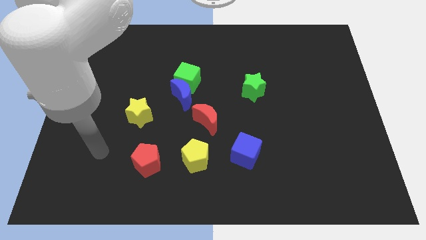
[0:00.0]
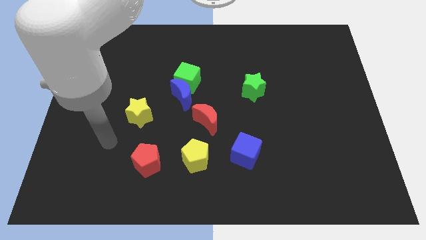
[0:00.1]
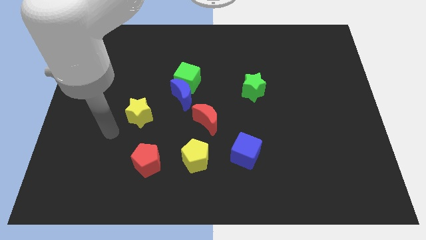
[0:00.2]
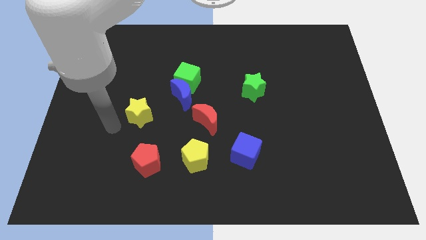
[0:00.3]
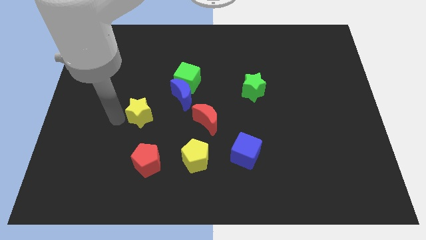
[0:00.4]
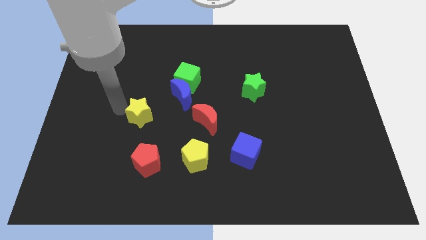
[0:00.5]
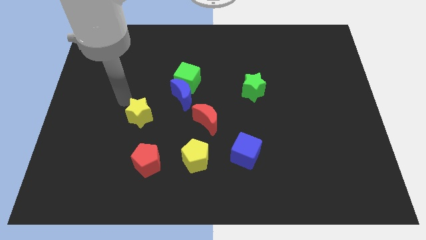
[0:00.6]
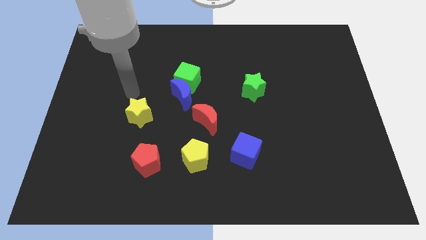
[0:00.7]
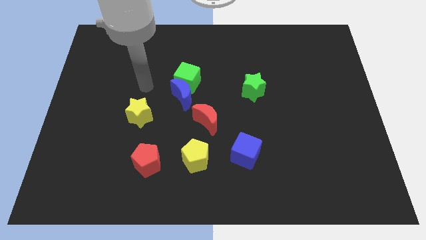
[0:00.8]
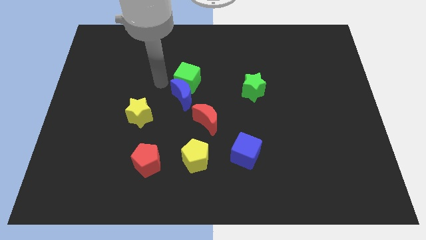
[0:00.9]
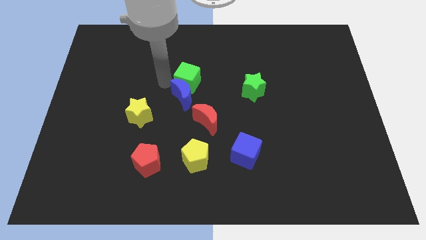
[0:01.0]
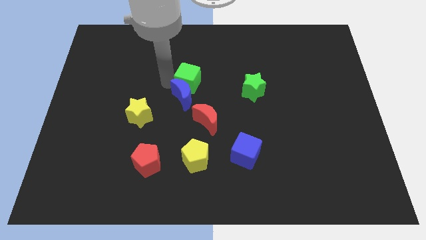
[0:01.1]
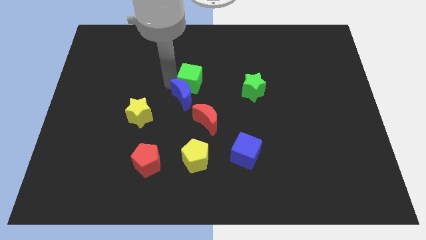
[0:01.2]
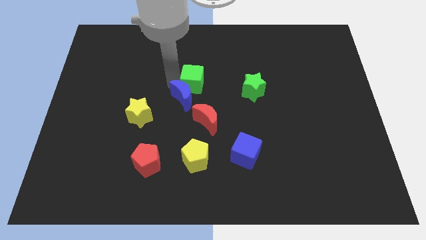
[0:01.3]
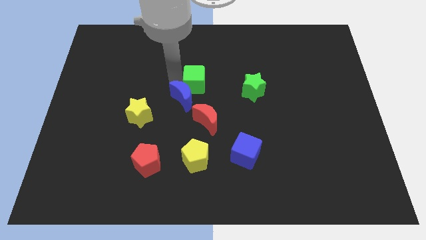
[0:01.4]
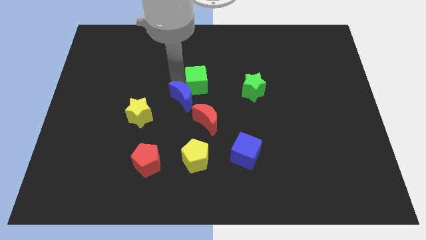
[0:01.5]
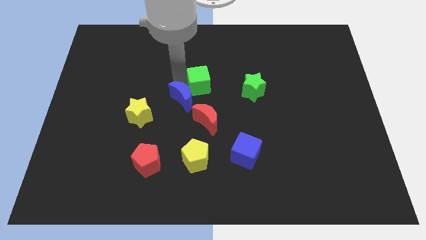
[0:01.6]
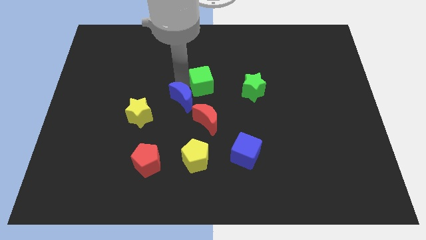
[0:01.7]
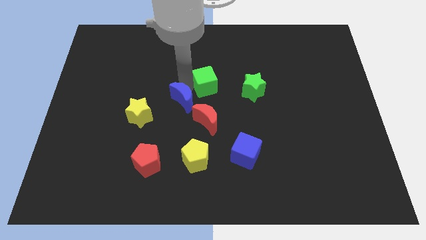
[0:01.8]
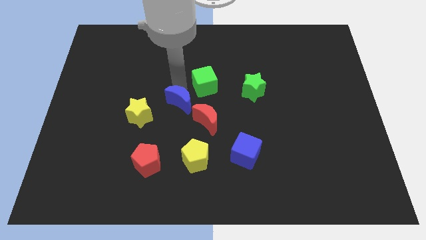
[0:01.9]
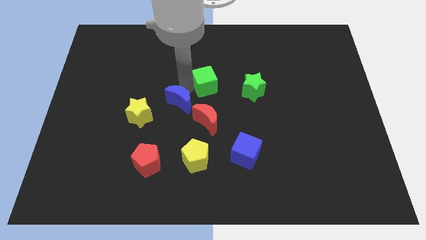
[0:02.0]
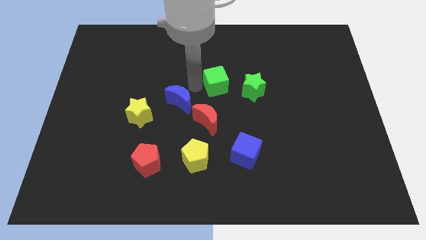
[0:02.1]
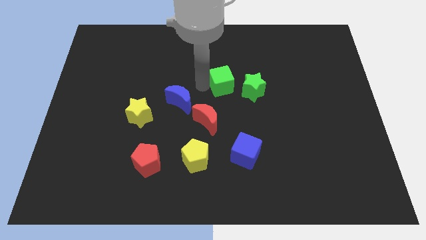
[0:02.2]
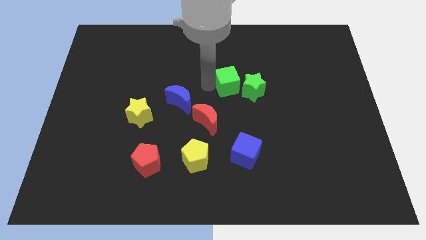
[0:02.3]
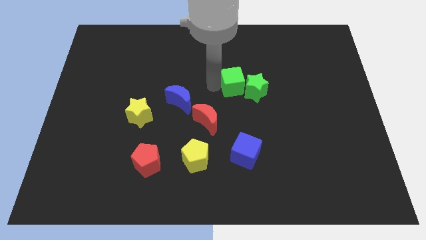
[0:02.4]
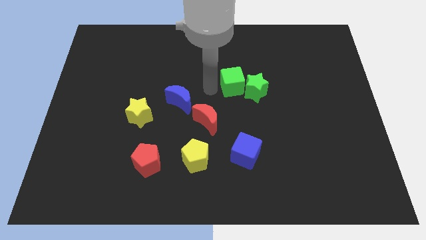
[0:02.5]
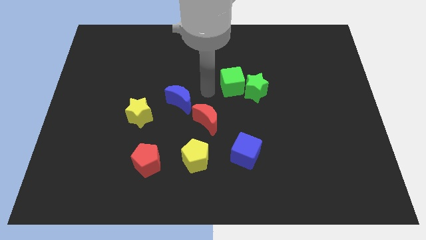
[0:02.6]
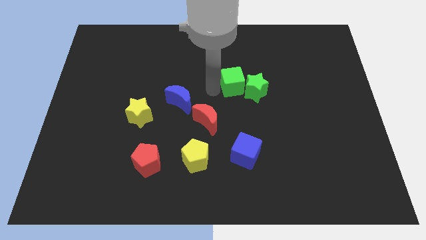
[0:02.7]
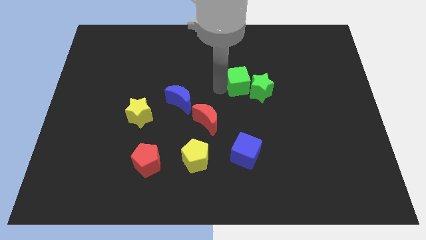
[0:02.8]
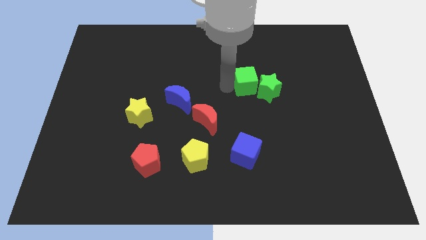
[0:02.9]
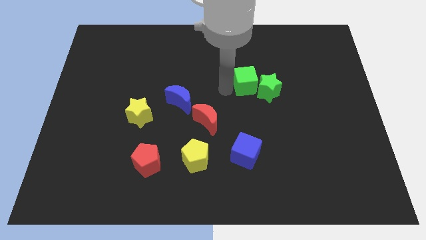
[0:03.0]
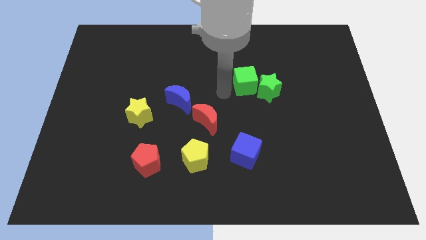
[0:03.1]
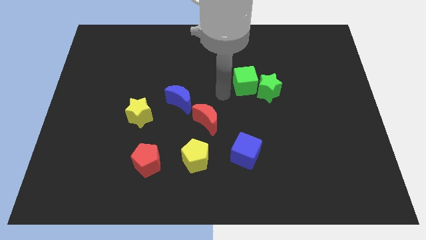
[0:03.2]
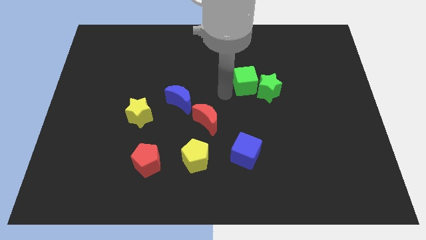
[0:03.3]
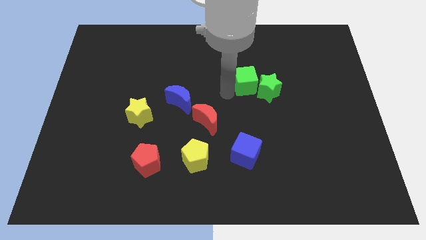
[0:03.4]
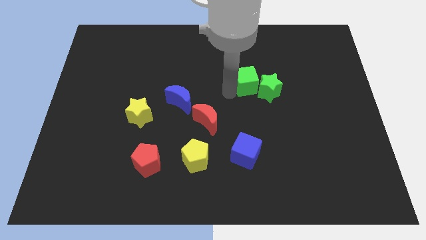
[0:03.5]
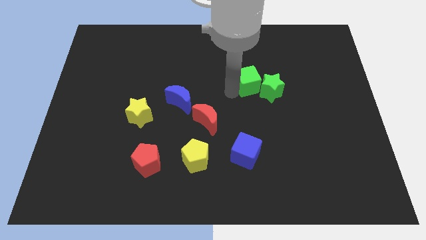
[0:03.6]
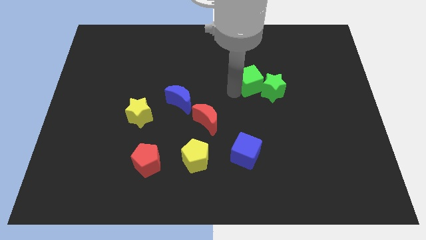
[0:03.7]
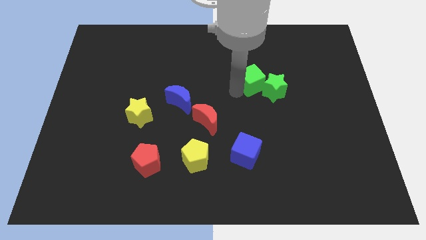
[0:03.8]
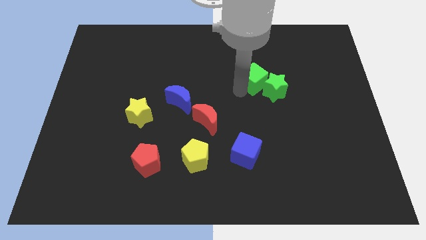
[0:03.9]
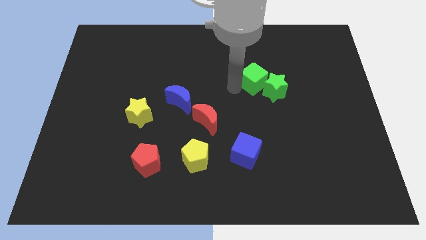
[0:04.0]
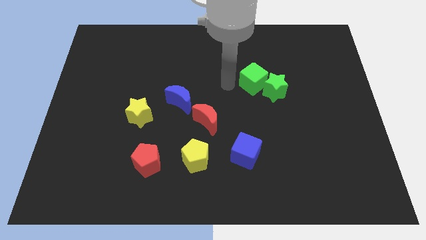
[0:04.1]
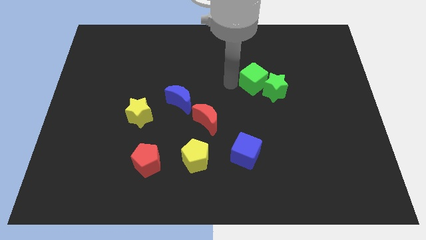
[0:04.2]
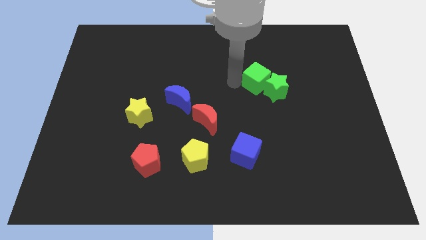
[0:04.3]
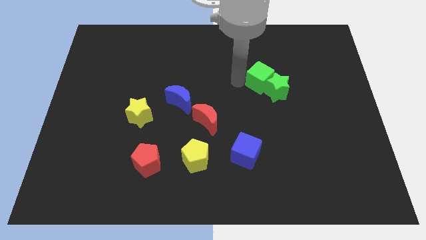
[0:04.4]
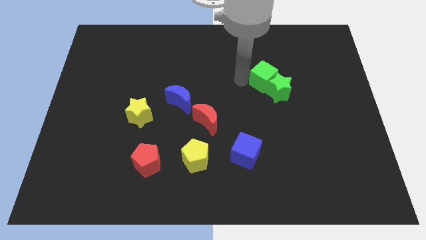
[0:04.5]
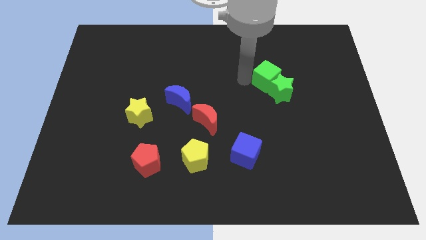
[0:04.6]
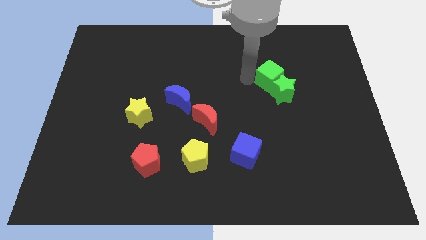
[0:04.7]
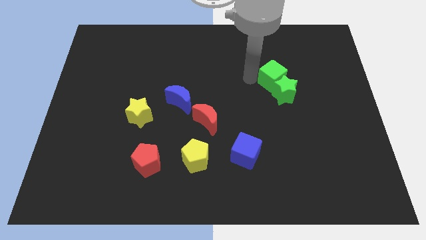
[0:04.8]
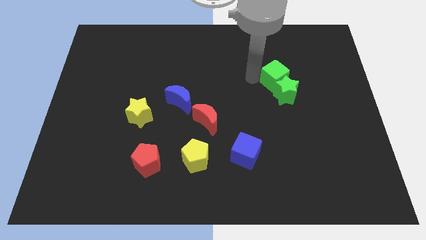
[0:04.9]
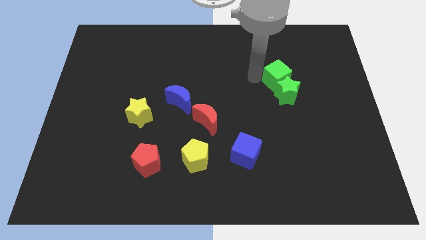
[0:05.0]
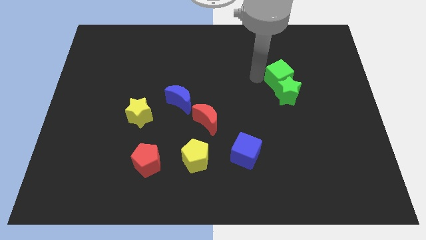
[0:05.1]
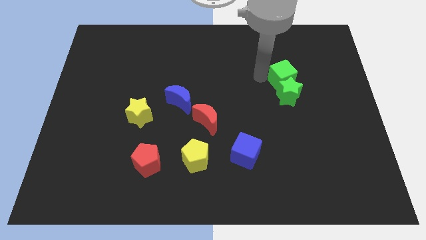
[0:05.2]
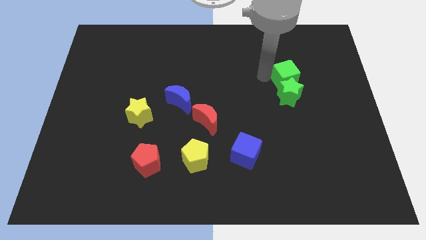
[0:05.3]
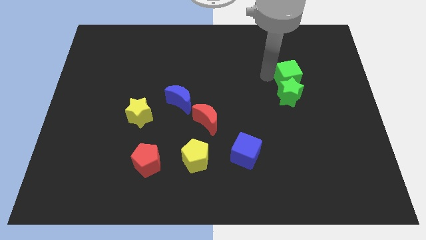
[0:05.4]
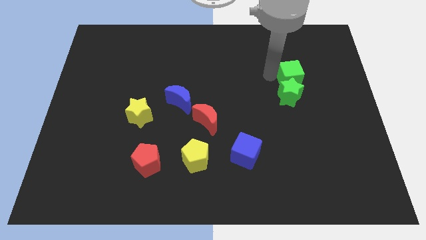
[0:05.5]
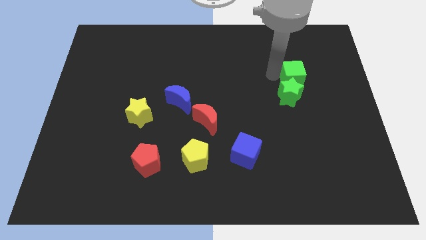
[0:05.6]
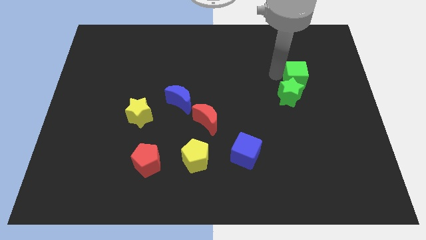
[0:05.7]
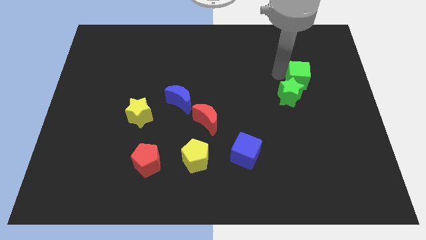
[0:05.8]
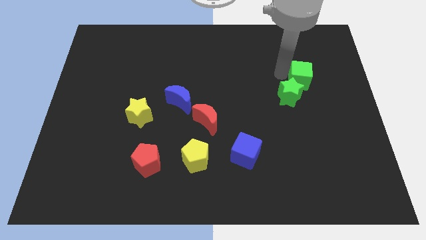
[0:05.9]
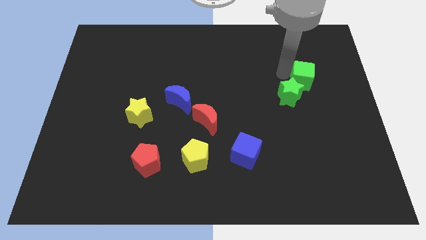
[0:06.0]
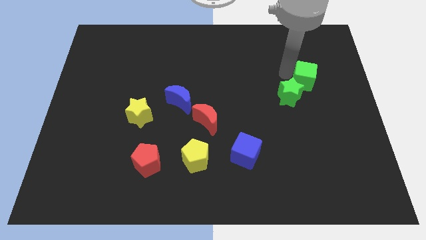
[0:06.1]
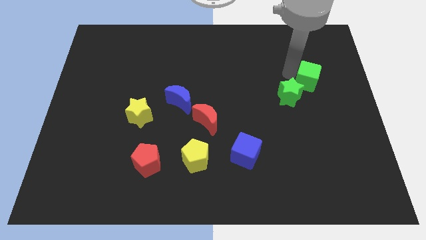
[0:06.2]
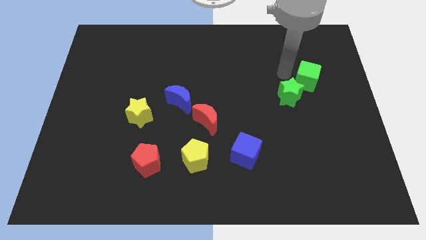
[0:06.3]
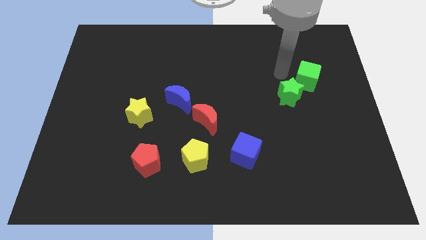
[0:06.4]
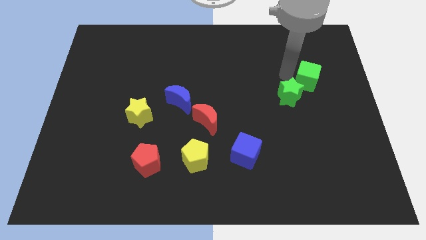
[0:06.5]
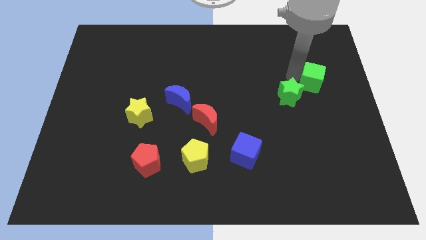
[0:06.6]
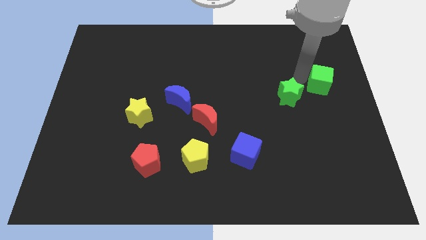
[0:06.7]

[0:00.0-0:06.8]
put the green cube to the right side of the board

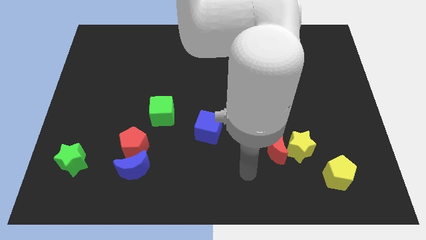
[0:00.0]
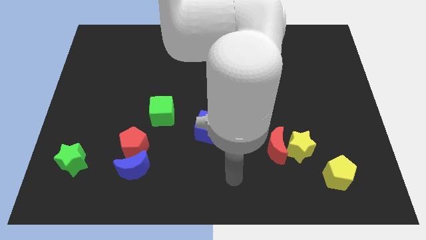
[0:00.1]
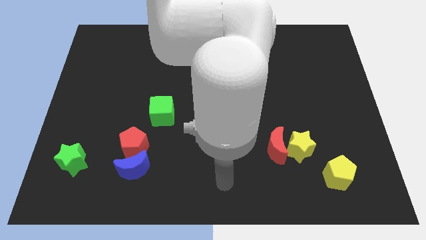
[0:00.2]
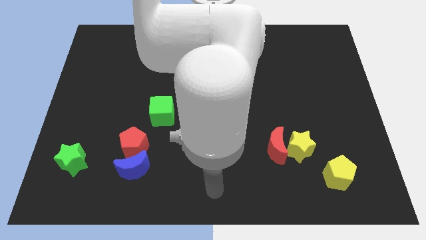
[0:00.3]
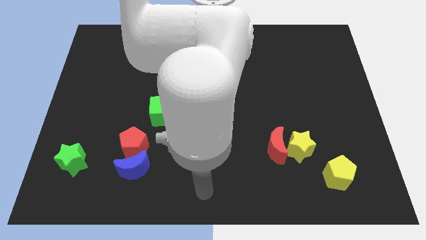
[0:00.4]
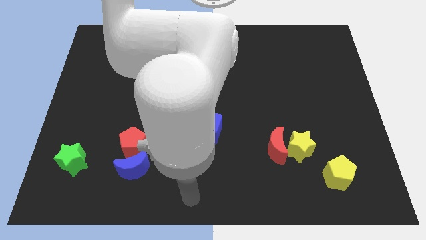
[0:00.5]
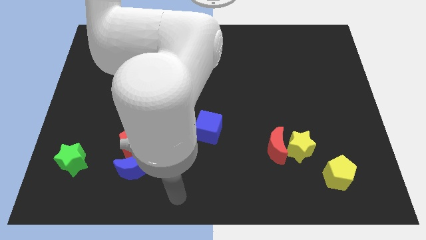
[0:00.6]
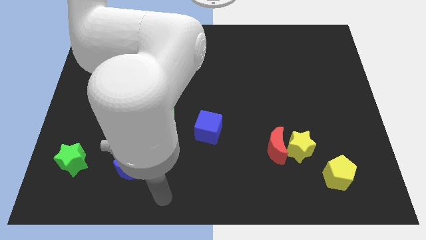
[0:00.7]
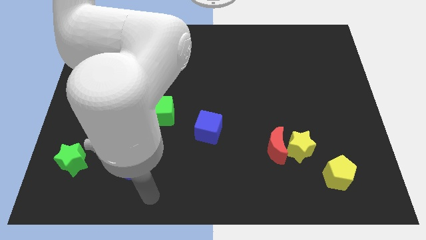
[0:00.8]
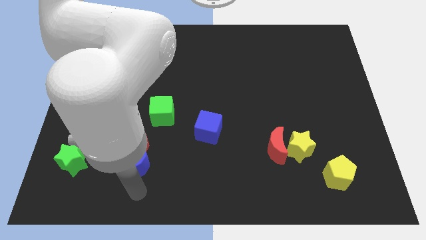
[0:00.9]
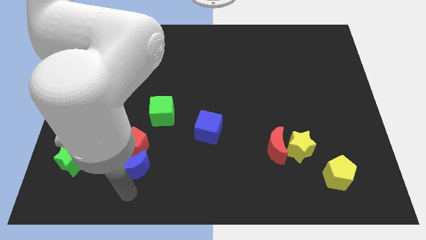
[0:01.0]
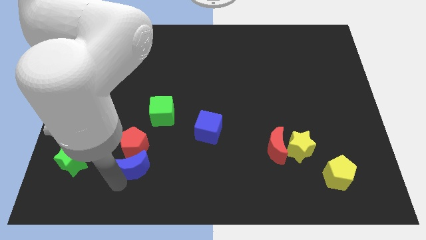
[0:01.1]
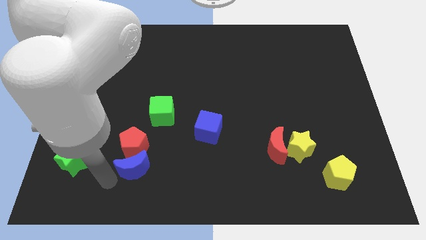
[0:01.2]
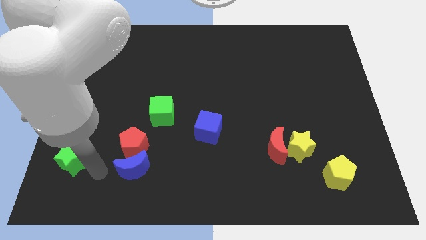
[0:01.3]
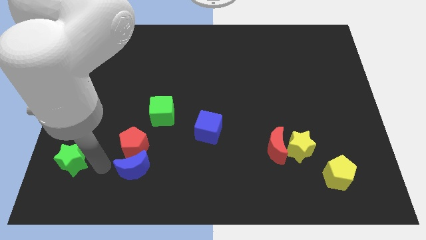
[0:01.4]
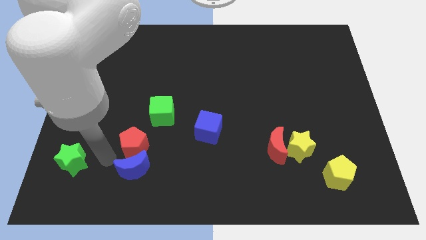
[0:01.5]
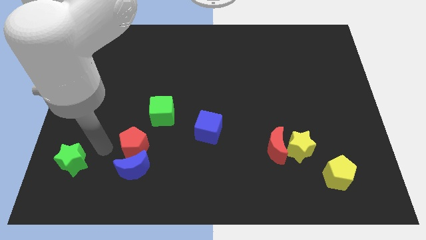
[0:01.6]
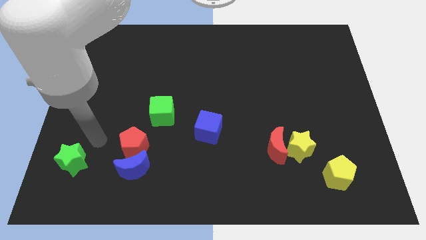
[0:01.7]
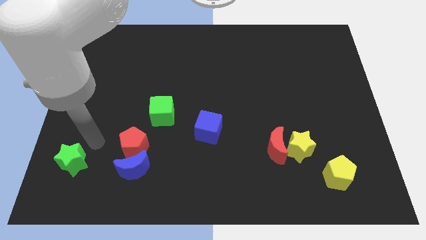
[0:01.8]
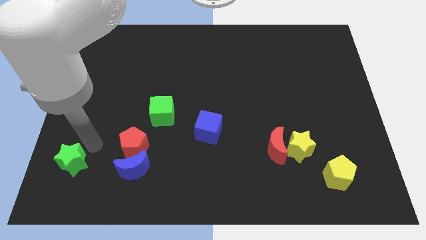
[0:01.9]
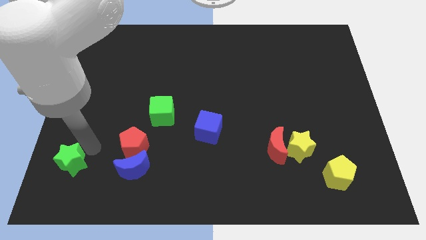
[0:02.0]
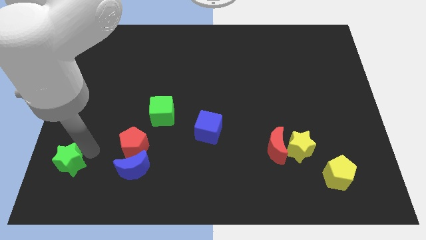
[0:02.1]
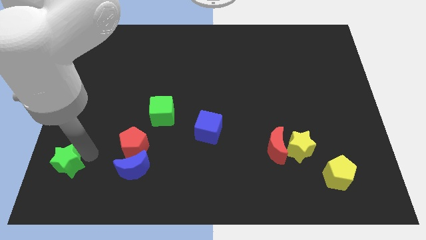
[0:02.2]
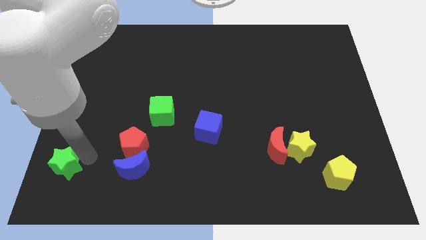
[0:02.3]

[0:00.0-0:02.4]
push the green star to the bottom left
